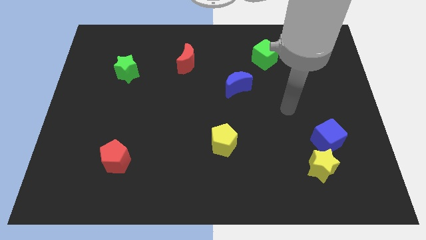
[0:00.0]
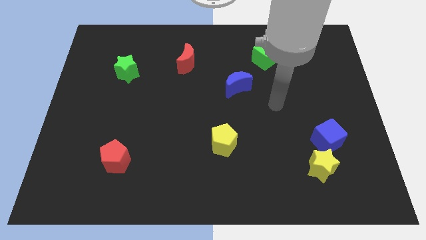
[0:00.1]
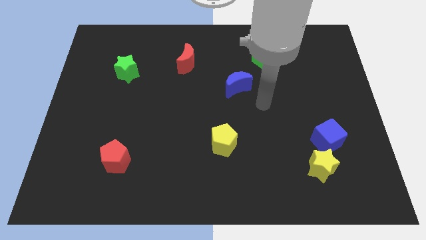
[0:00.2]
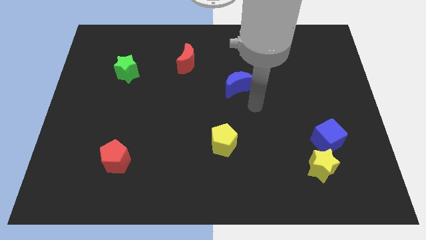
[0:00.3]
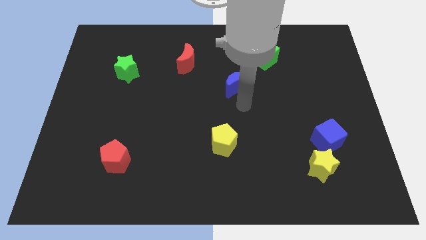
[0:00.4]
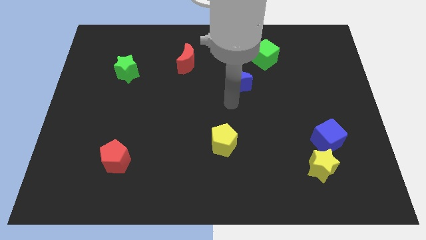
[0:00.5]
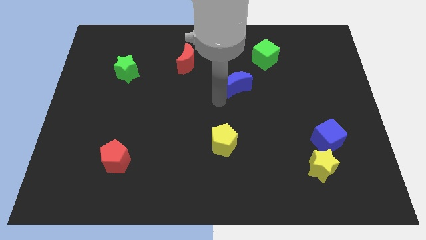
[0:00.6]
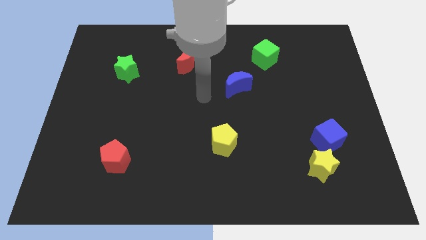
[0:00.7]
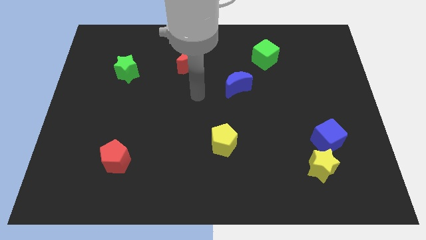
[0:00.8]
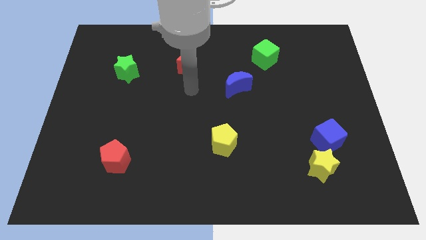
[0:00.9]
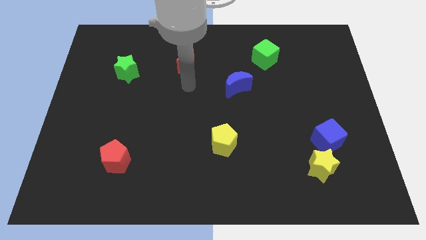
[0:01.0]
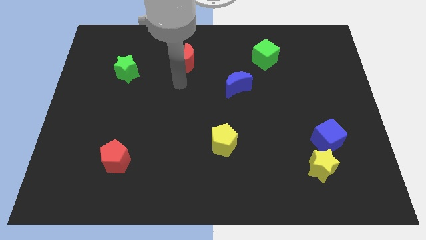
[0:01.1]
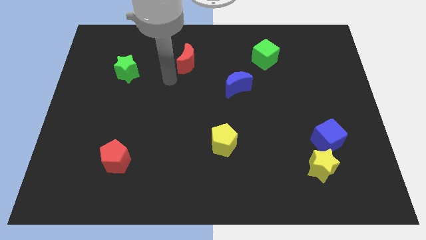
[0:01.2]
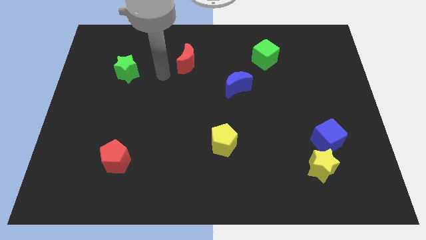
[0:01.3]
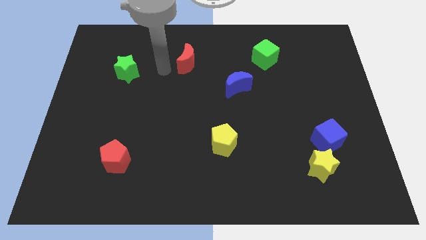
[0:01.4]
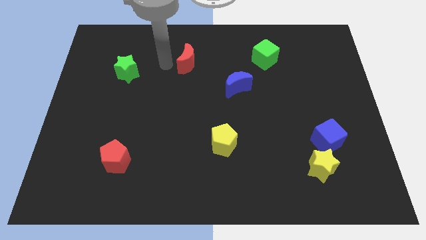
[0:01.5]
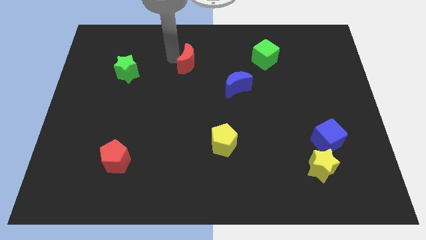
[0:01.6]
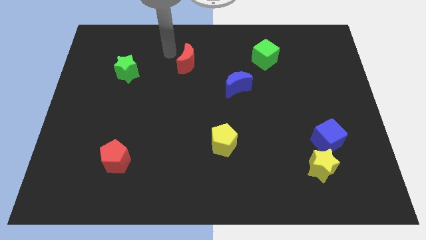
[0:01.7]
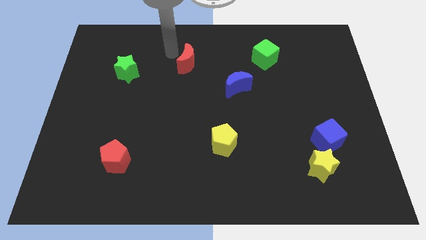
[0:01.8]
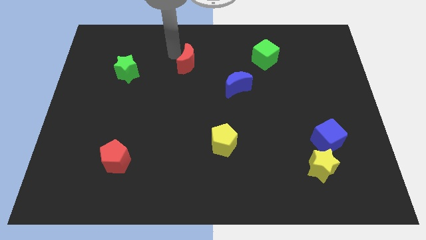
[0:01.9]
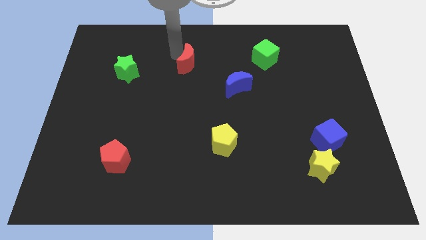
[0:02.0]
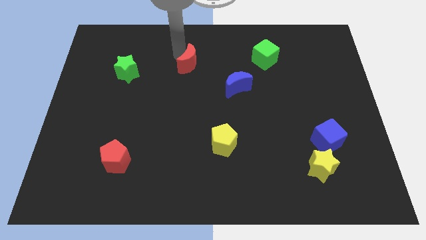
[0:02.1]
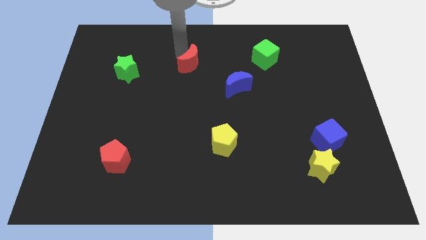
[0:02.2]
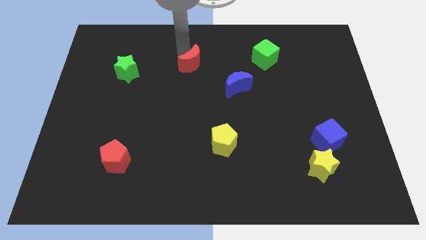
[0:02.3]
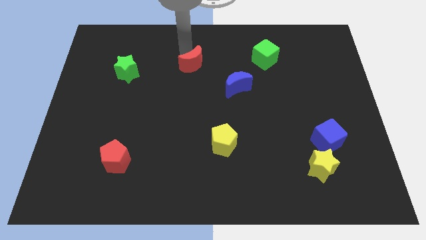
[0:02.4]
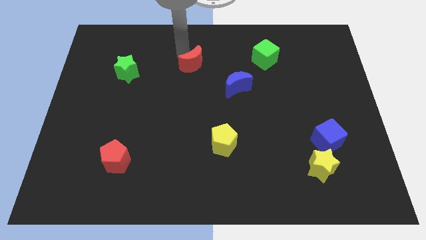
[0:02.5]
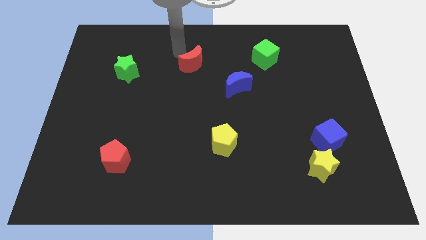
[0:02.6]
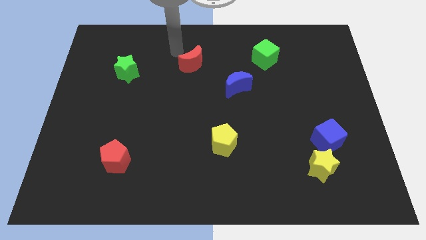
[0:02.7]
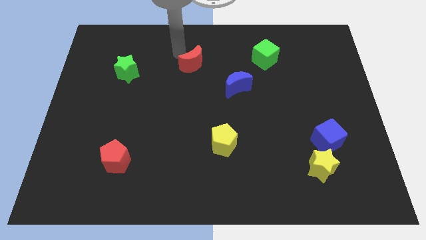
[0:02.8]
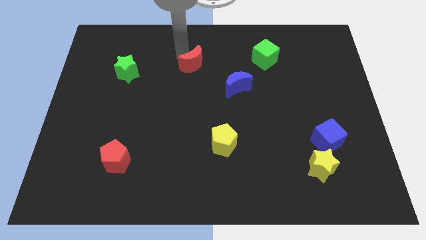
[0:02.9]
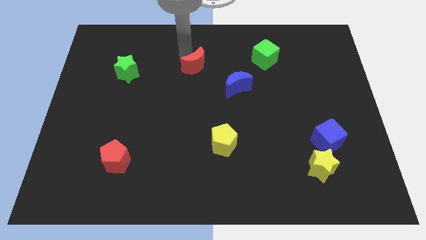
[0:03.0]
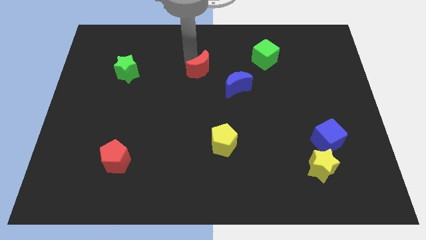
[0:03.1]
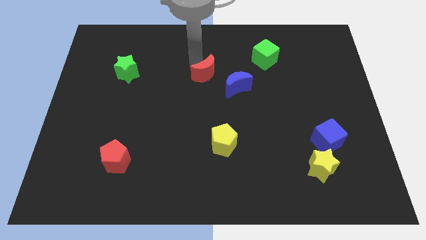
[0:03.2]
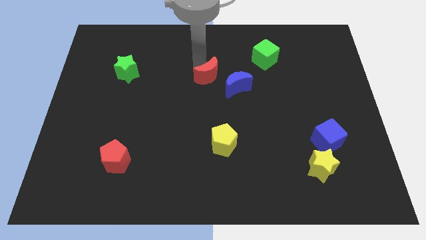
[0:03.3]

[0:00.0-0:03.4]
slightly push the red moon downwards and to the right diagonally

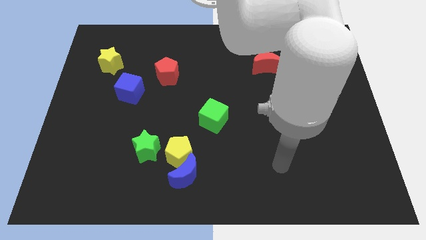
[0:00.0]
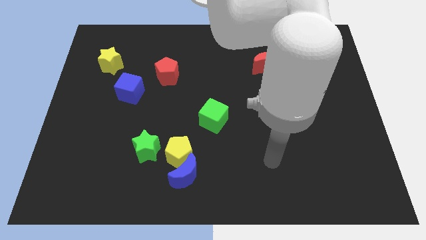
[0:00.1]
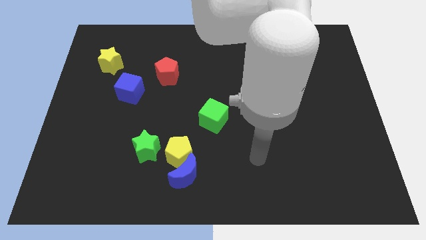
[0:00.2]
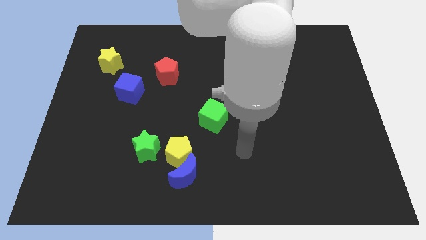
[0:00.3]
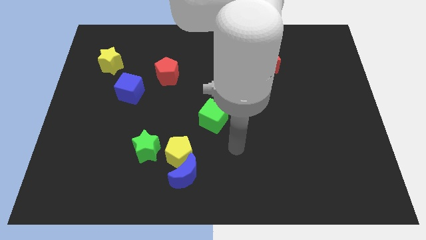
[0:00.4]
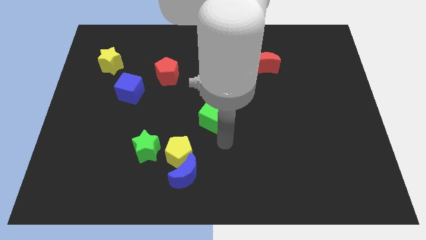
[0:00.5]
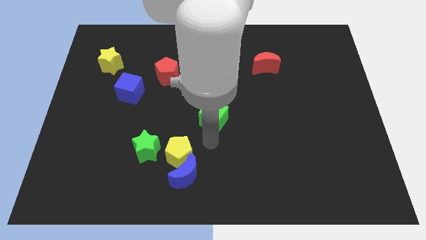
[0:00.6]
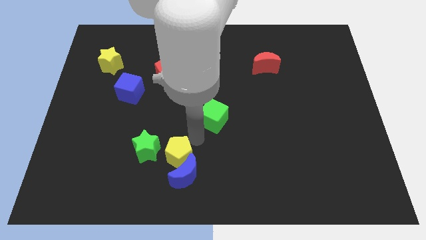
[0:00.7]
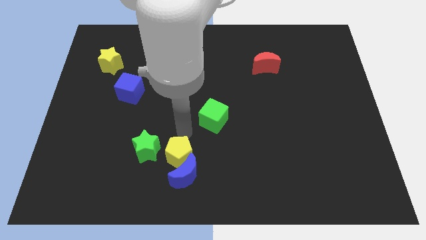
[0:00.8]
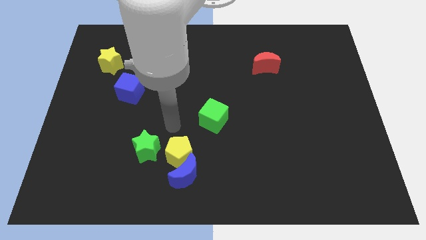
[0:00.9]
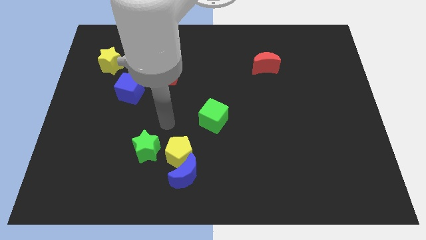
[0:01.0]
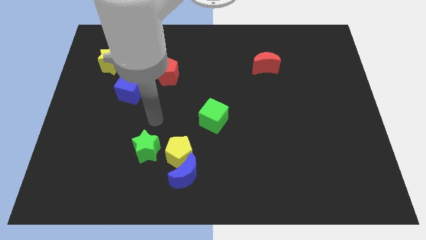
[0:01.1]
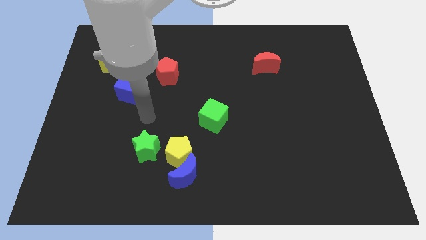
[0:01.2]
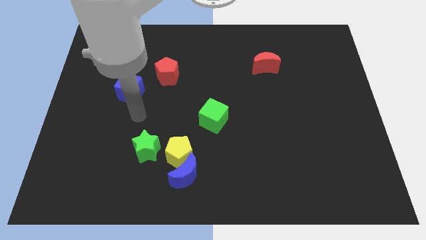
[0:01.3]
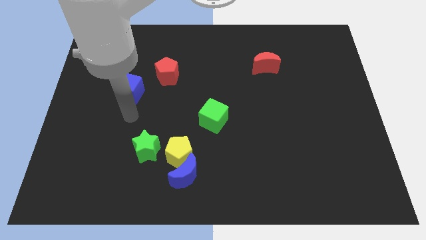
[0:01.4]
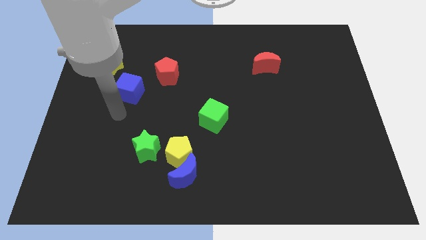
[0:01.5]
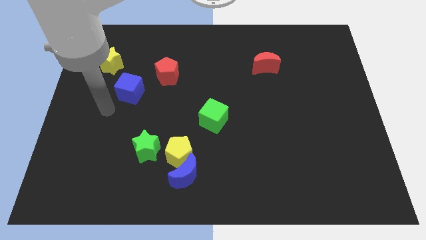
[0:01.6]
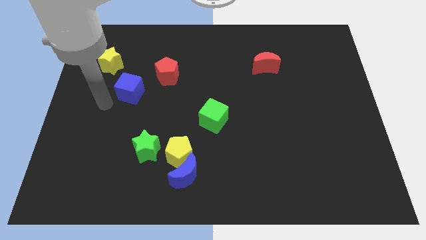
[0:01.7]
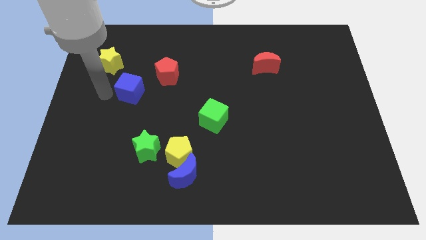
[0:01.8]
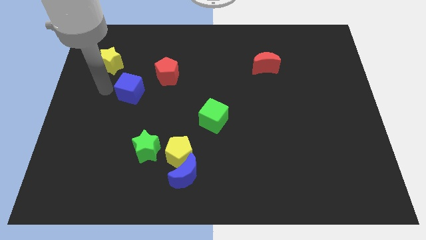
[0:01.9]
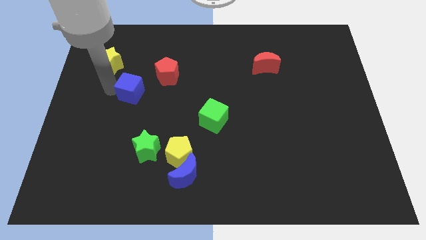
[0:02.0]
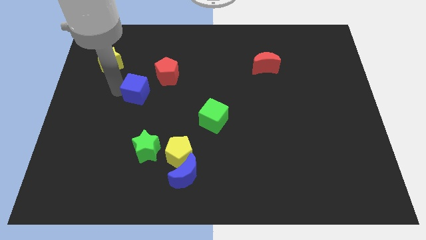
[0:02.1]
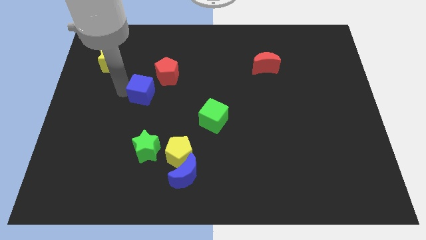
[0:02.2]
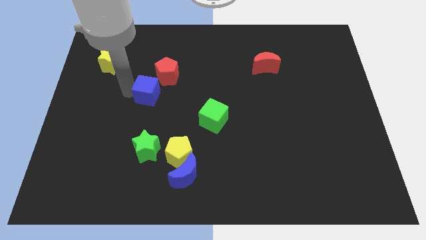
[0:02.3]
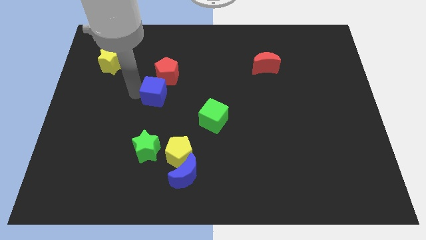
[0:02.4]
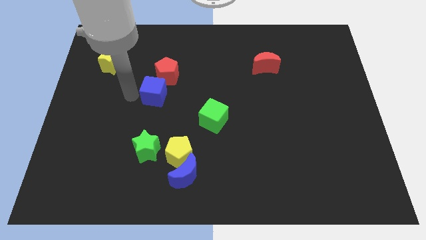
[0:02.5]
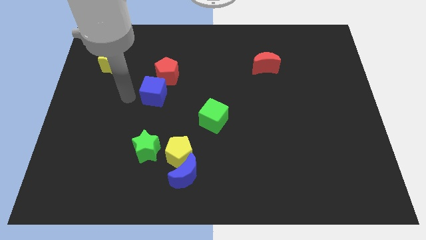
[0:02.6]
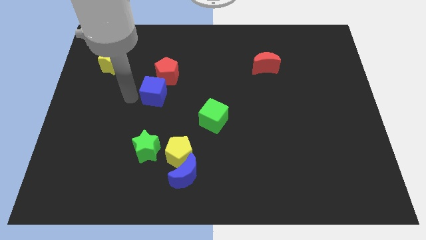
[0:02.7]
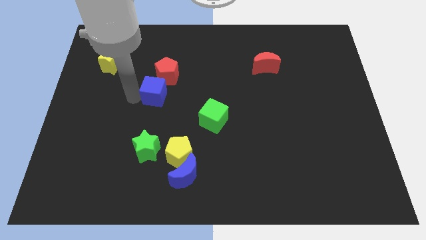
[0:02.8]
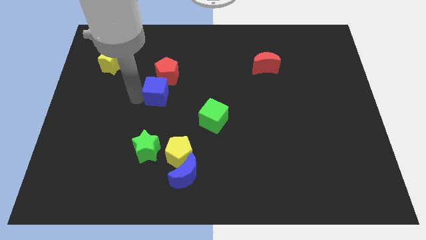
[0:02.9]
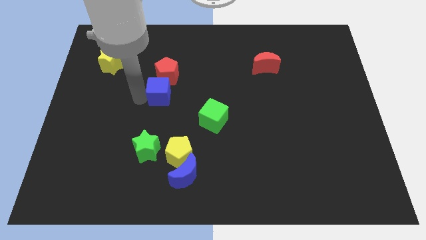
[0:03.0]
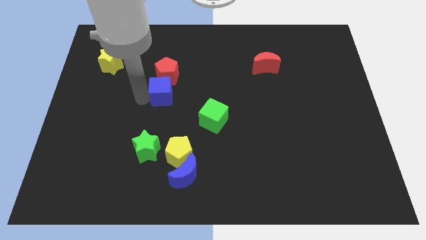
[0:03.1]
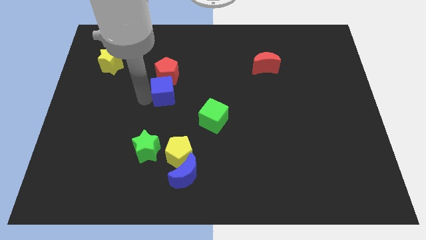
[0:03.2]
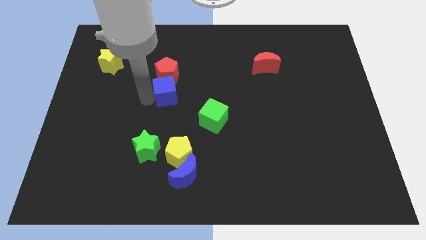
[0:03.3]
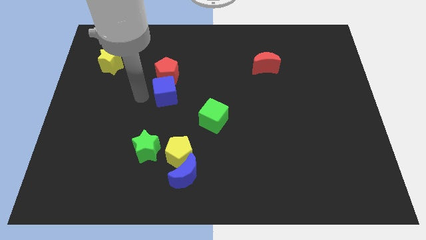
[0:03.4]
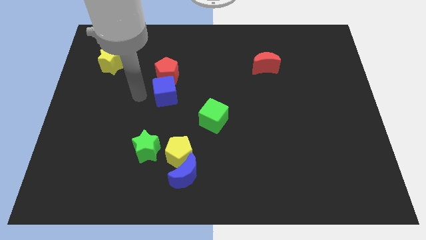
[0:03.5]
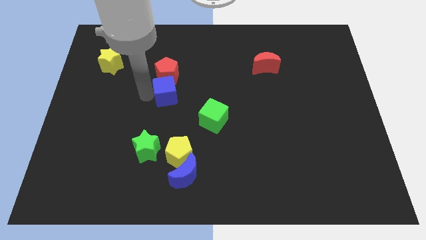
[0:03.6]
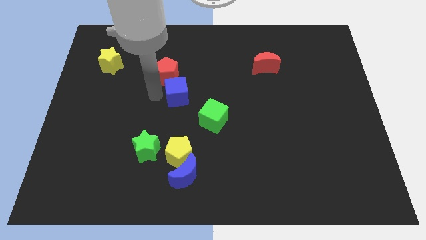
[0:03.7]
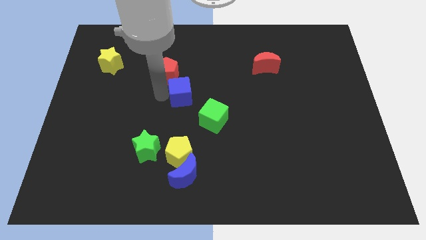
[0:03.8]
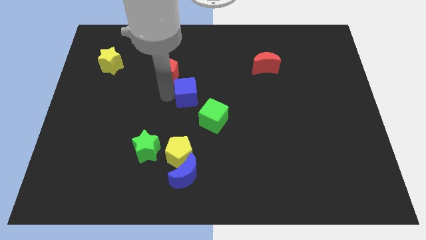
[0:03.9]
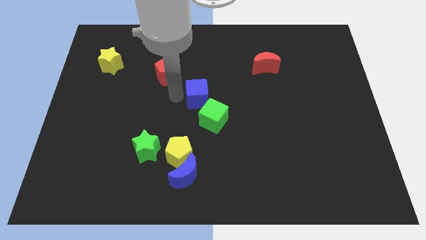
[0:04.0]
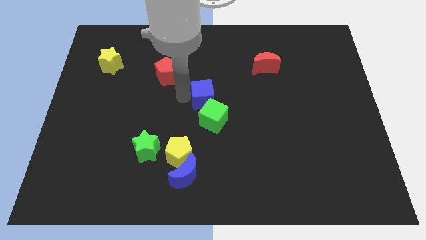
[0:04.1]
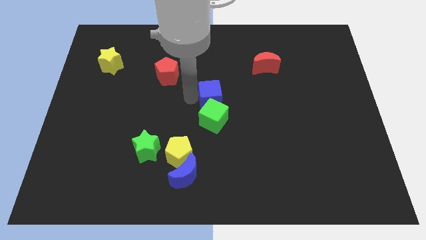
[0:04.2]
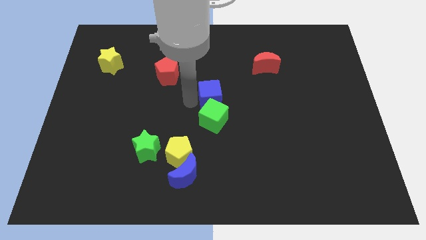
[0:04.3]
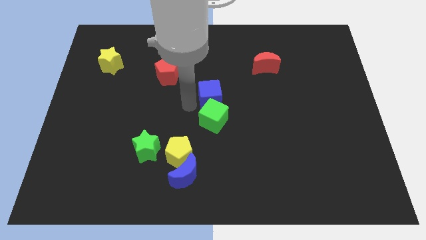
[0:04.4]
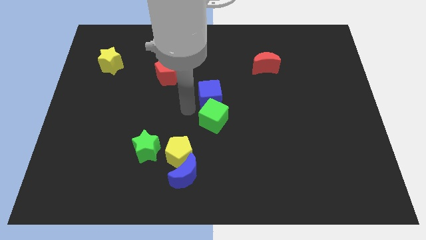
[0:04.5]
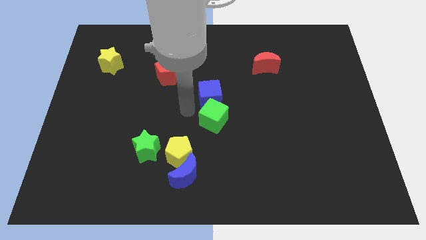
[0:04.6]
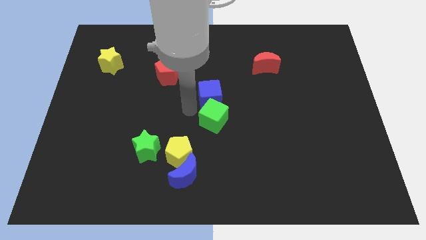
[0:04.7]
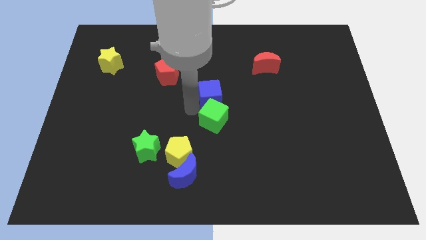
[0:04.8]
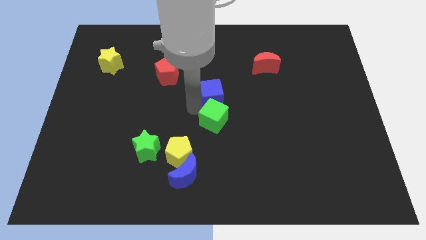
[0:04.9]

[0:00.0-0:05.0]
slide the blue cube right
